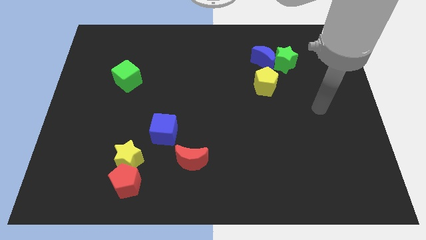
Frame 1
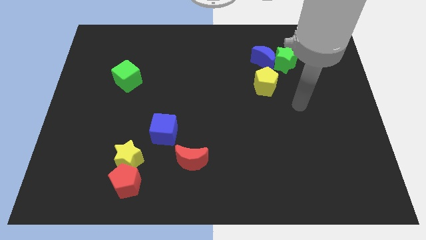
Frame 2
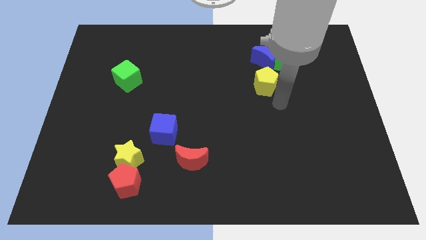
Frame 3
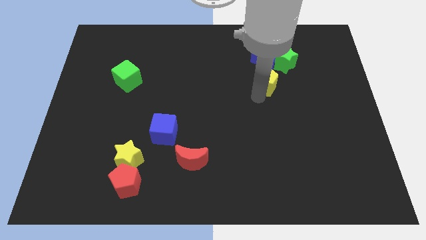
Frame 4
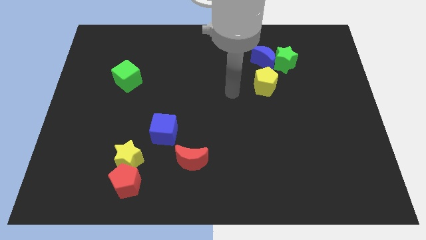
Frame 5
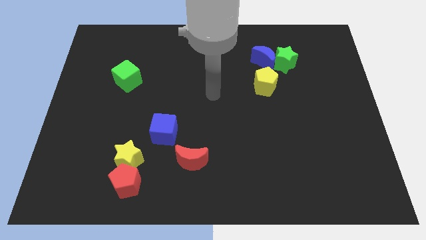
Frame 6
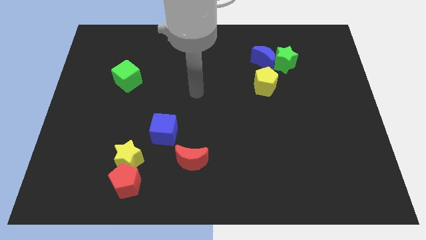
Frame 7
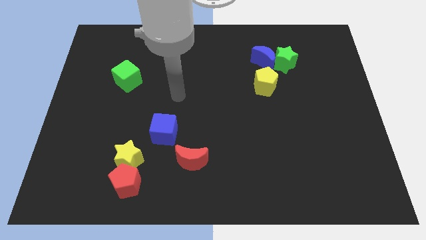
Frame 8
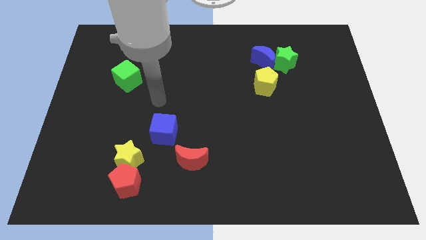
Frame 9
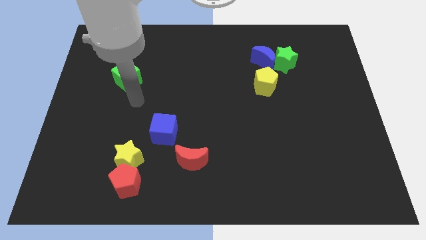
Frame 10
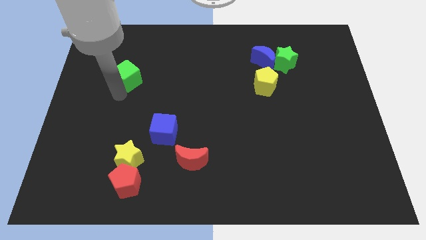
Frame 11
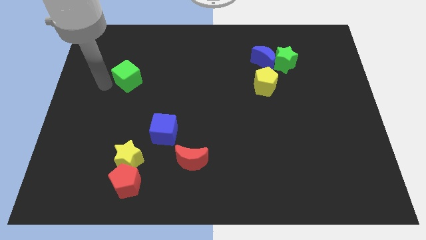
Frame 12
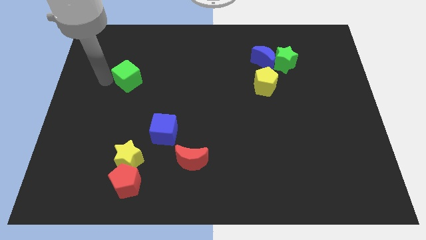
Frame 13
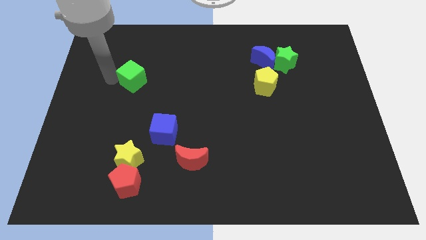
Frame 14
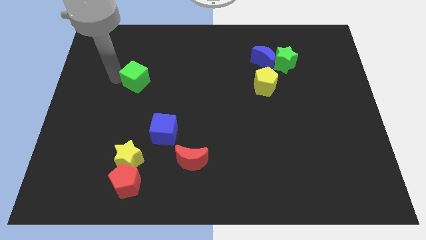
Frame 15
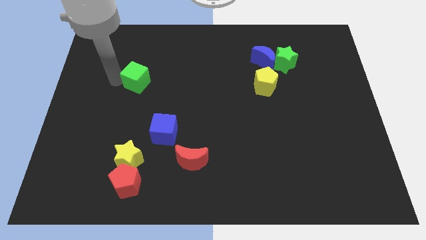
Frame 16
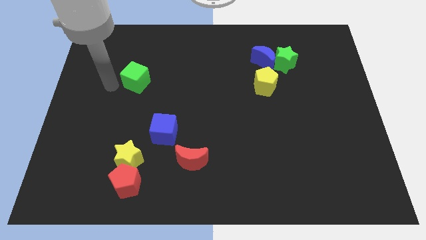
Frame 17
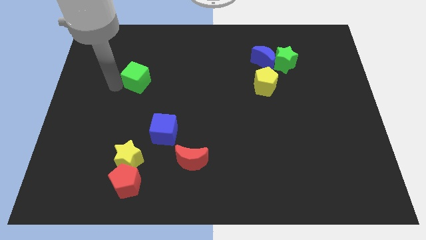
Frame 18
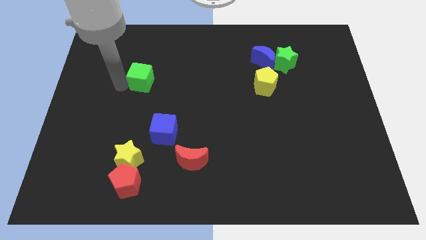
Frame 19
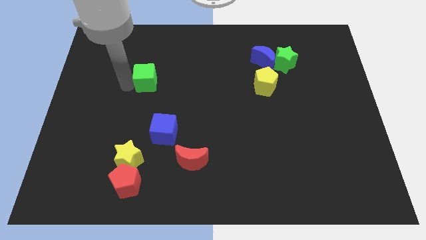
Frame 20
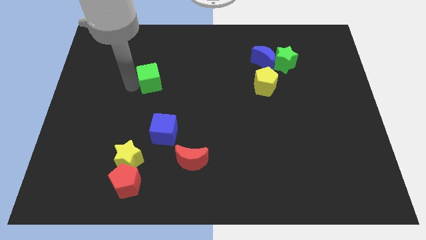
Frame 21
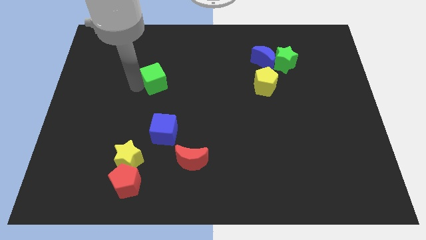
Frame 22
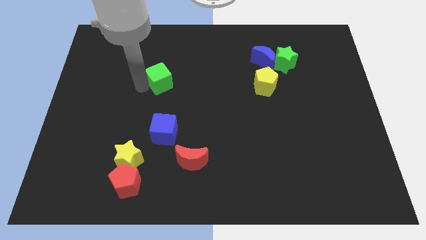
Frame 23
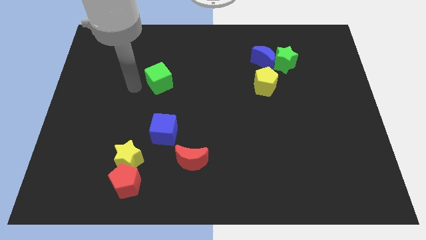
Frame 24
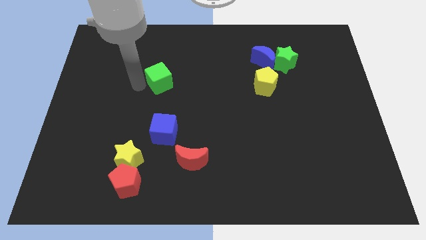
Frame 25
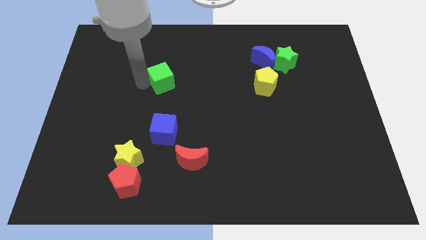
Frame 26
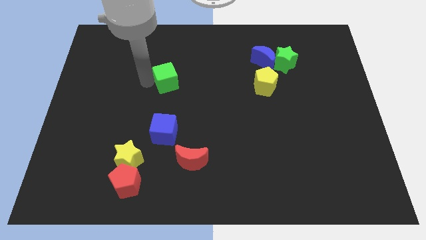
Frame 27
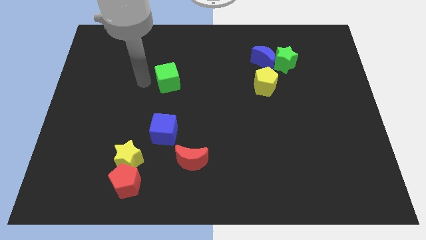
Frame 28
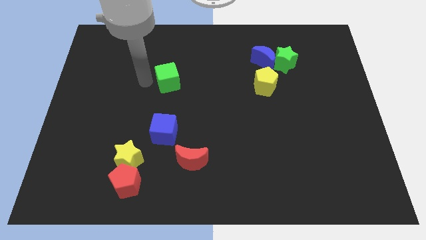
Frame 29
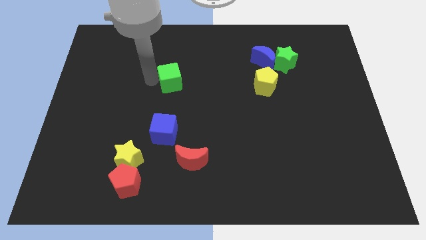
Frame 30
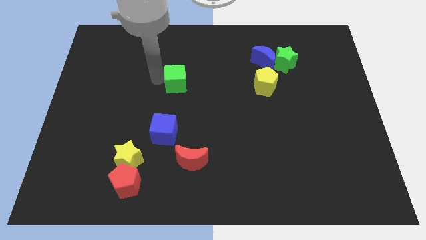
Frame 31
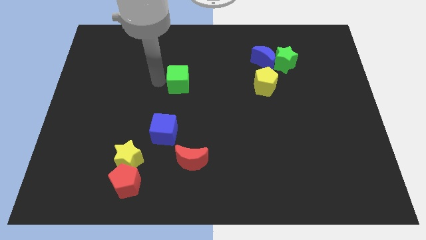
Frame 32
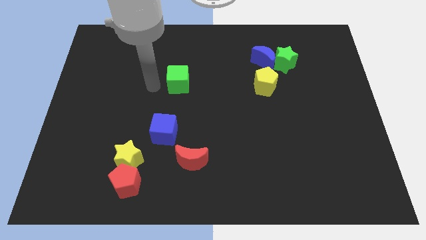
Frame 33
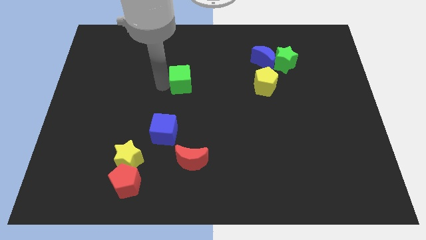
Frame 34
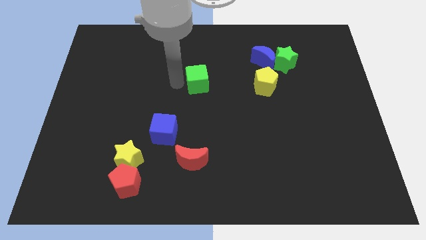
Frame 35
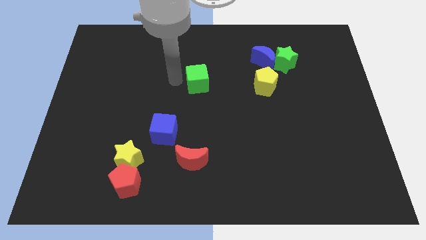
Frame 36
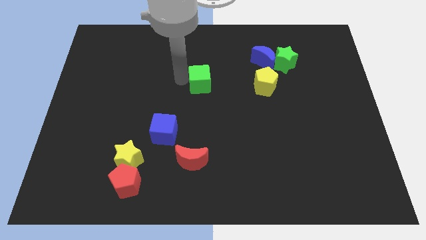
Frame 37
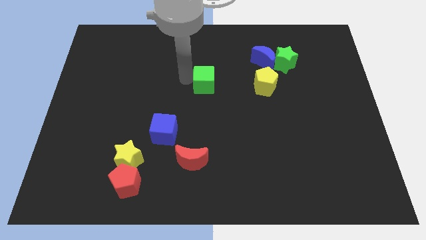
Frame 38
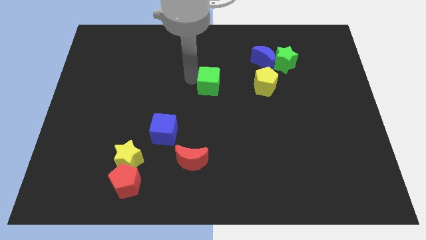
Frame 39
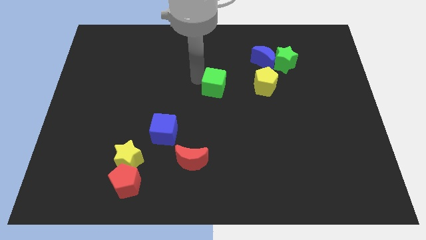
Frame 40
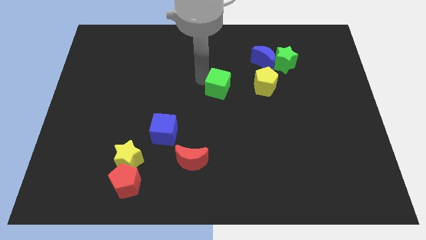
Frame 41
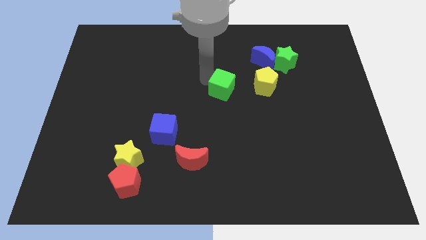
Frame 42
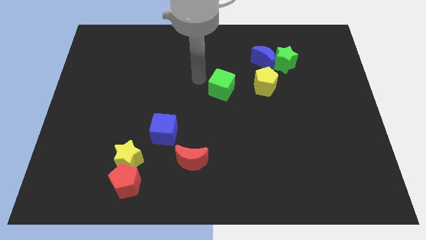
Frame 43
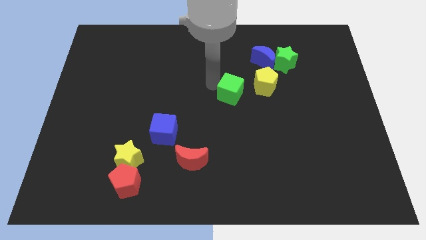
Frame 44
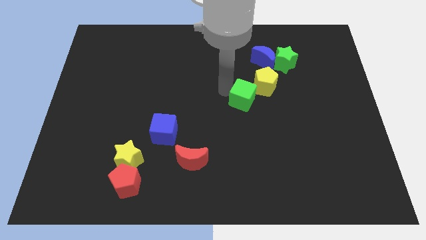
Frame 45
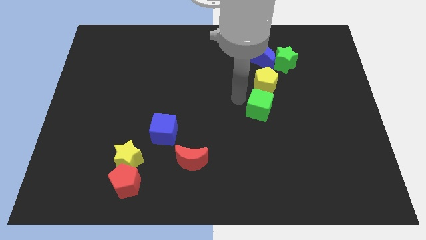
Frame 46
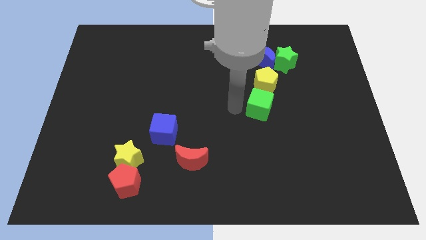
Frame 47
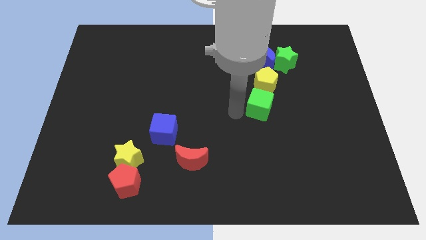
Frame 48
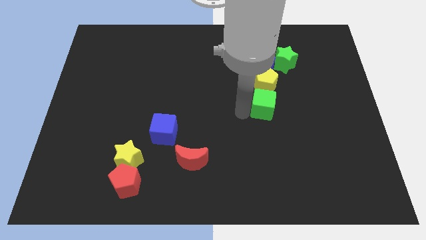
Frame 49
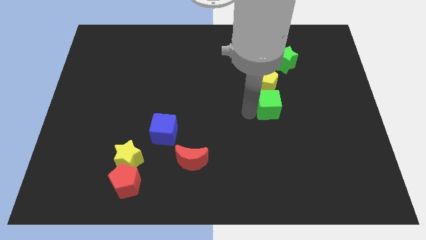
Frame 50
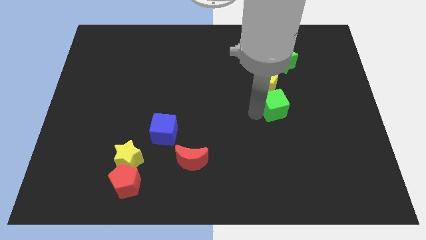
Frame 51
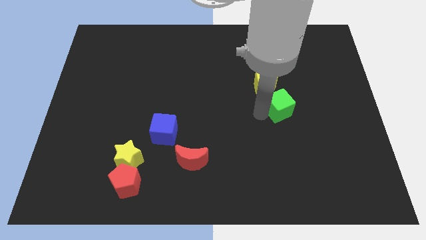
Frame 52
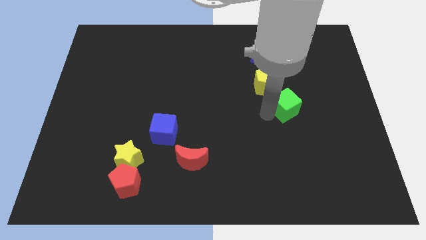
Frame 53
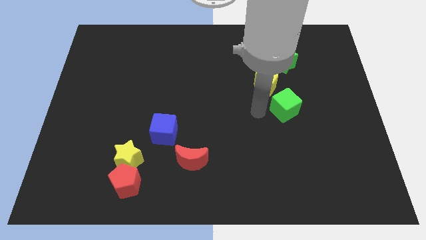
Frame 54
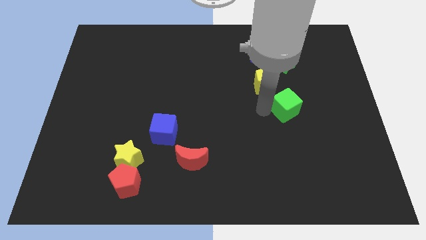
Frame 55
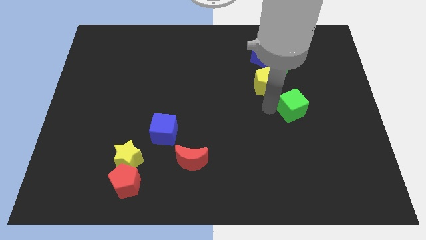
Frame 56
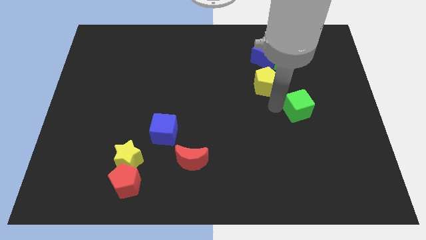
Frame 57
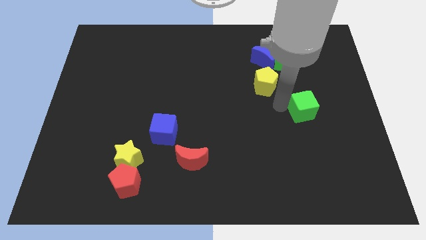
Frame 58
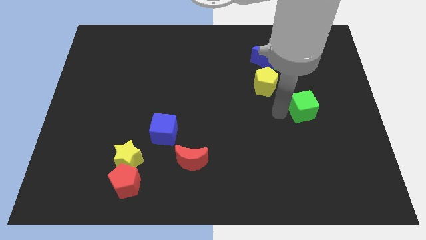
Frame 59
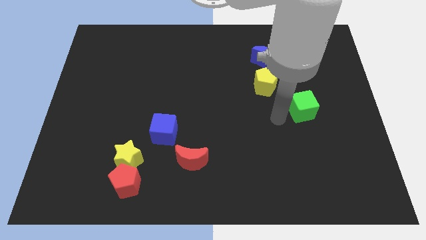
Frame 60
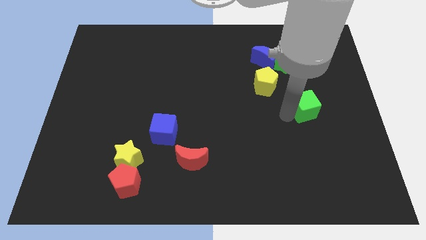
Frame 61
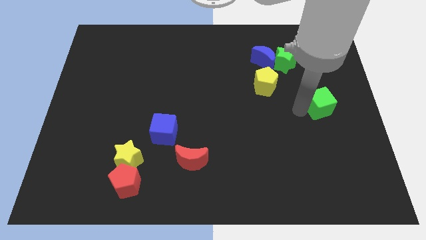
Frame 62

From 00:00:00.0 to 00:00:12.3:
push the green cube to the right side of the board

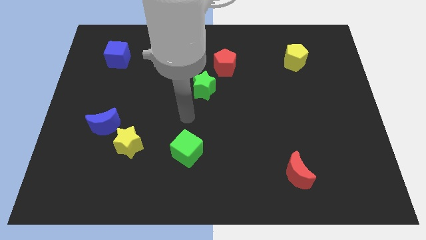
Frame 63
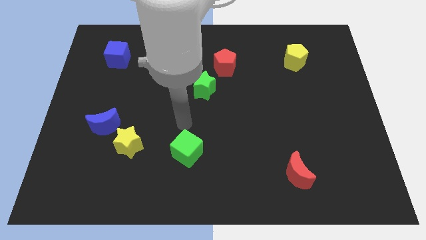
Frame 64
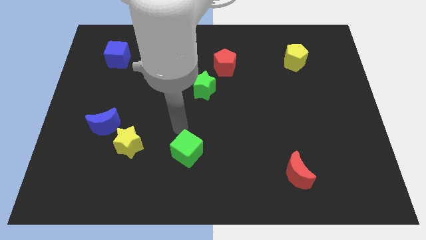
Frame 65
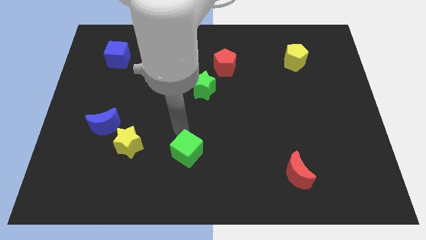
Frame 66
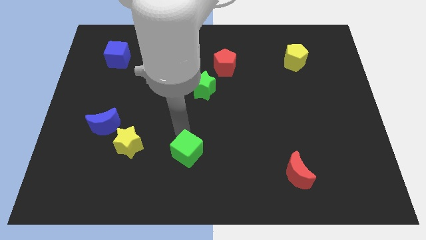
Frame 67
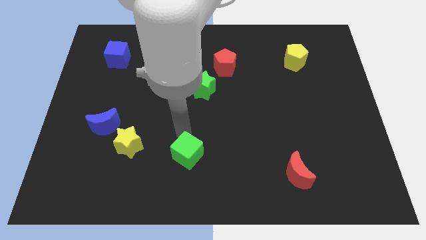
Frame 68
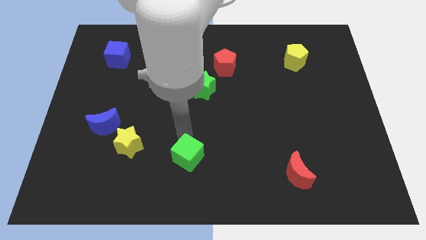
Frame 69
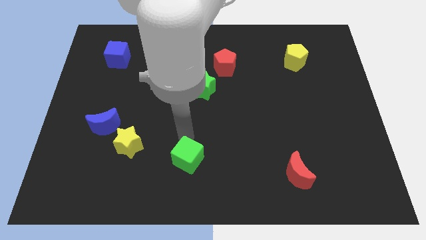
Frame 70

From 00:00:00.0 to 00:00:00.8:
push the green cube to the bottom
